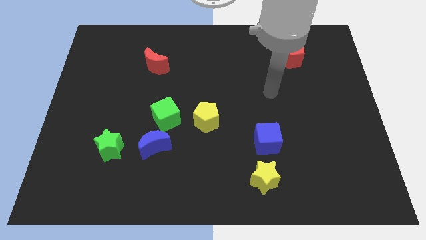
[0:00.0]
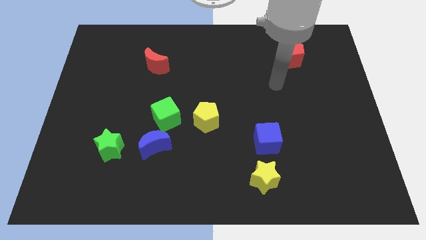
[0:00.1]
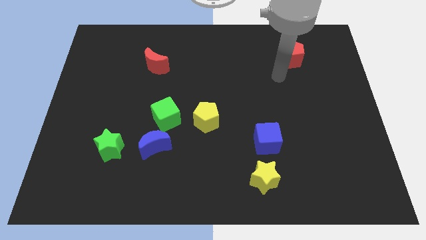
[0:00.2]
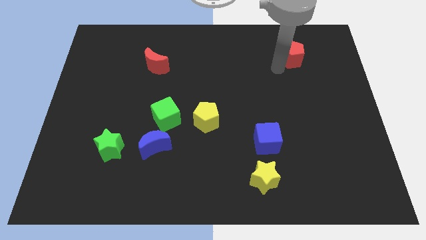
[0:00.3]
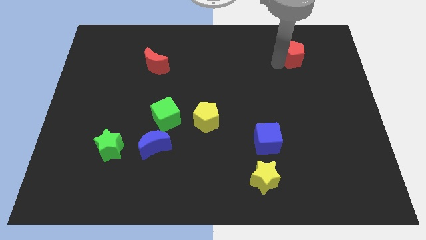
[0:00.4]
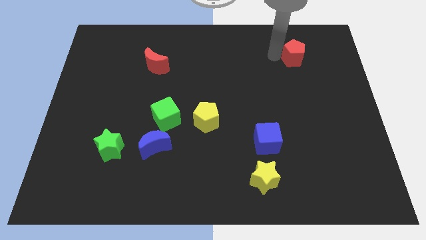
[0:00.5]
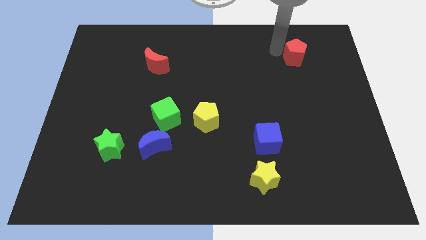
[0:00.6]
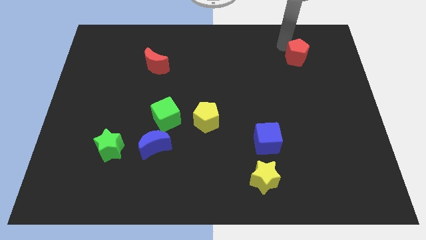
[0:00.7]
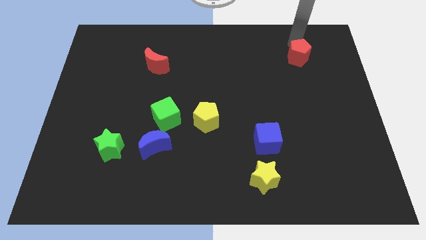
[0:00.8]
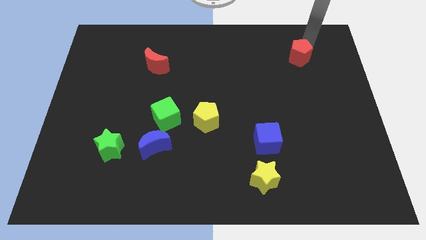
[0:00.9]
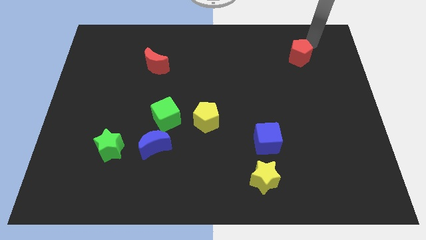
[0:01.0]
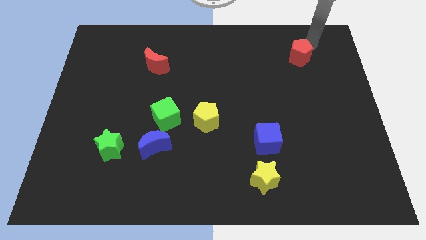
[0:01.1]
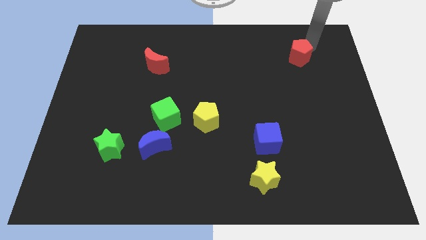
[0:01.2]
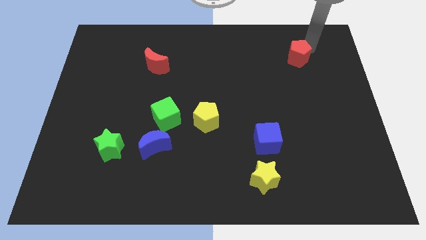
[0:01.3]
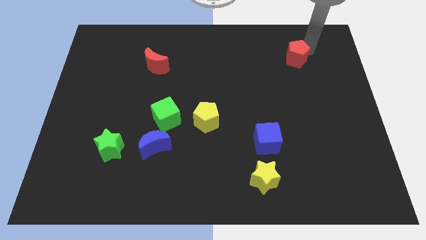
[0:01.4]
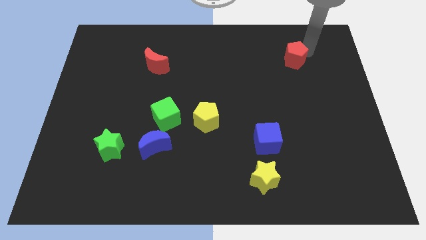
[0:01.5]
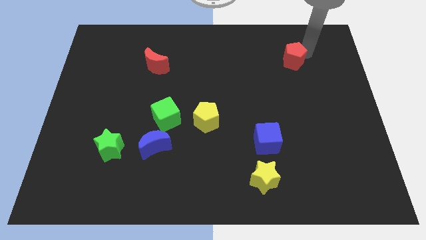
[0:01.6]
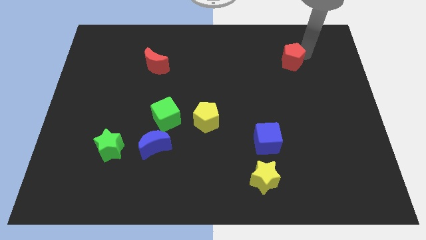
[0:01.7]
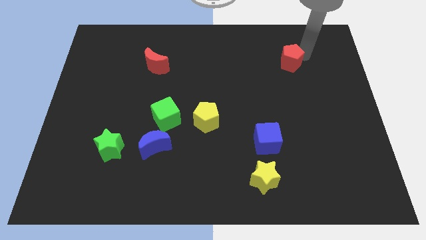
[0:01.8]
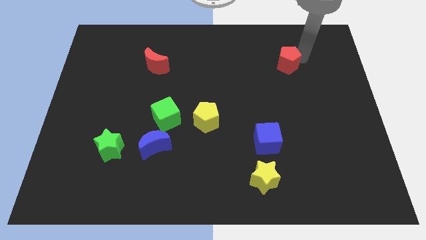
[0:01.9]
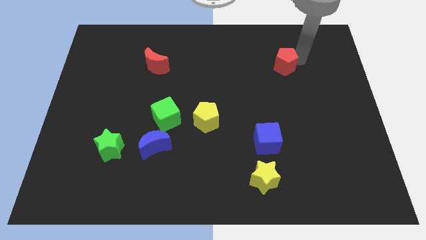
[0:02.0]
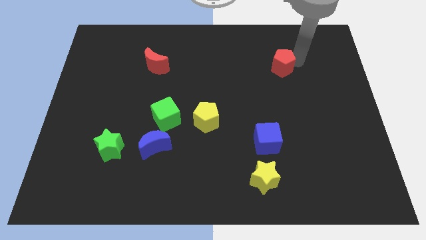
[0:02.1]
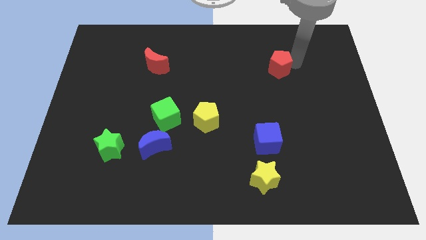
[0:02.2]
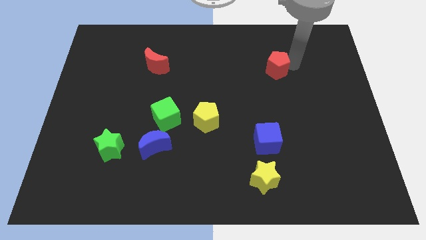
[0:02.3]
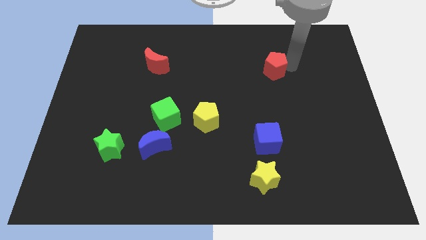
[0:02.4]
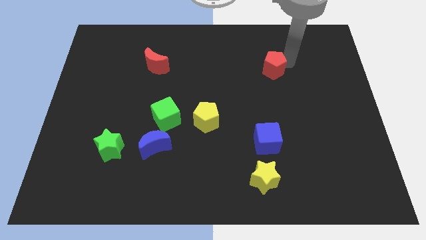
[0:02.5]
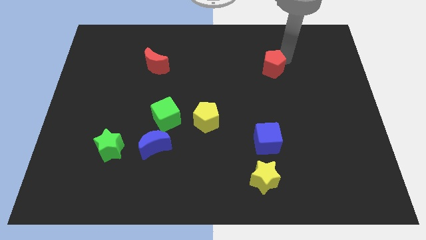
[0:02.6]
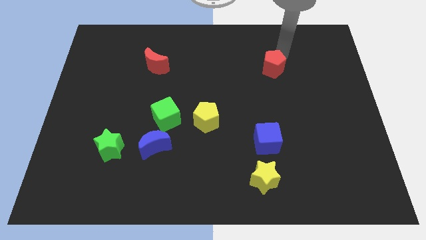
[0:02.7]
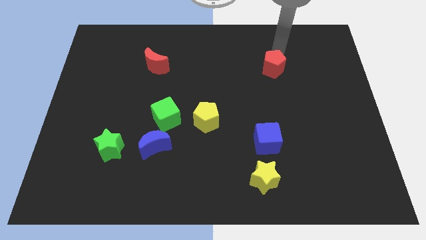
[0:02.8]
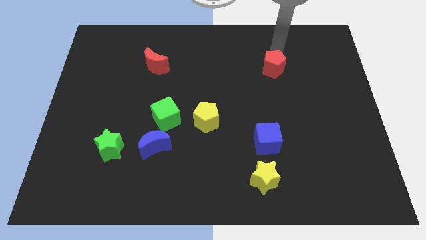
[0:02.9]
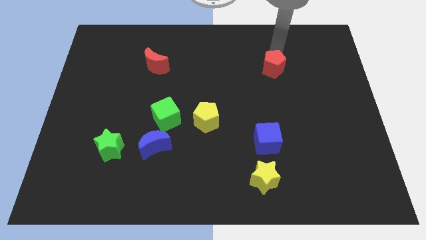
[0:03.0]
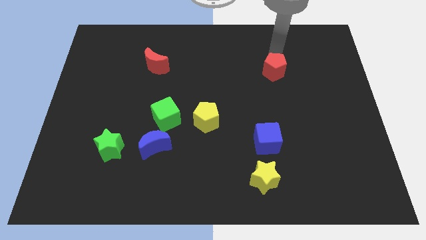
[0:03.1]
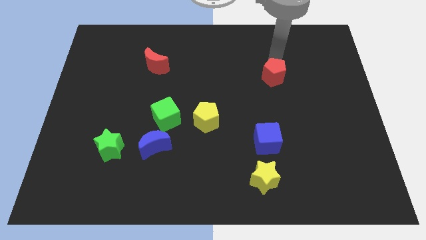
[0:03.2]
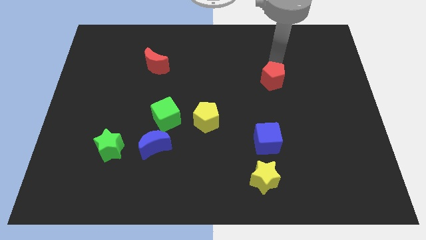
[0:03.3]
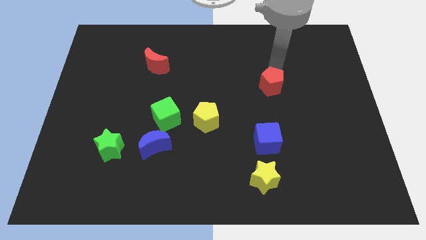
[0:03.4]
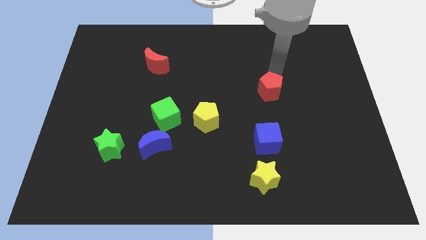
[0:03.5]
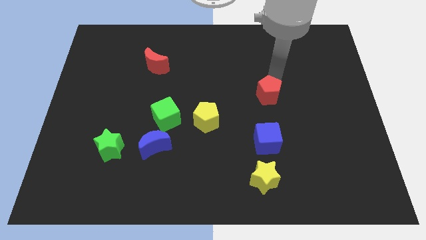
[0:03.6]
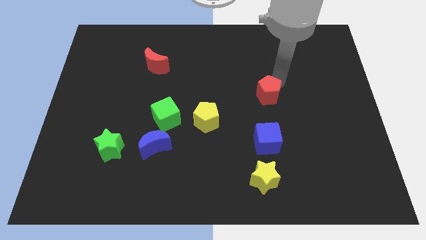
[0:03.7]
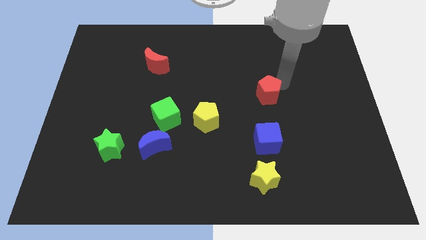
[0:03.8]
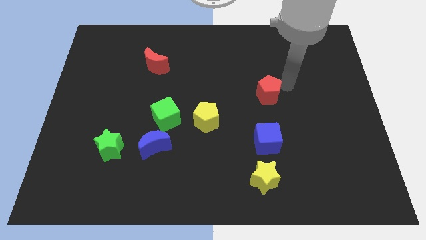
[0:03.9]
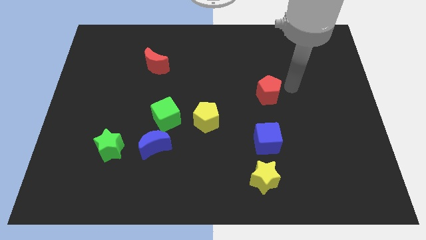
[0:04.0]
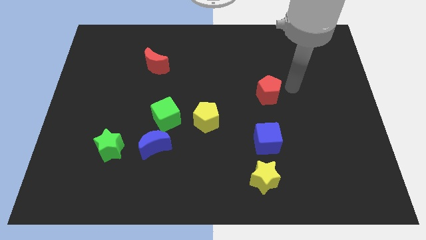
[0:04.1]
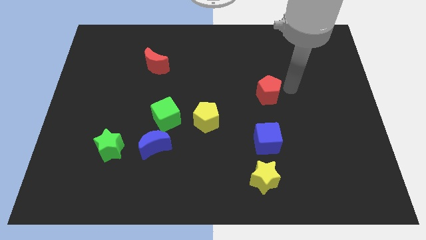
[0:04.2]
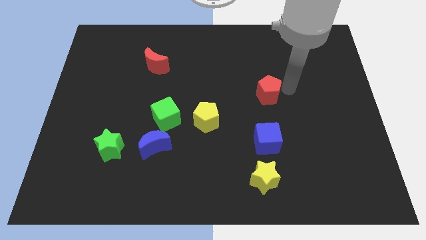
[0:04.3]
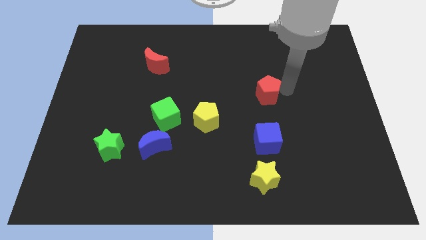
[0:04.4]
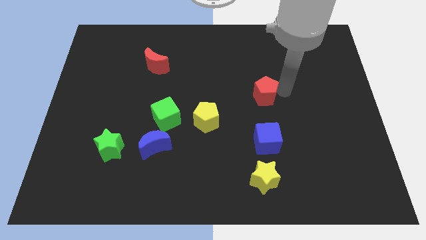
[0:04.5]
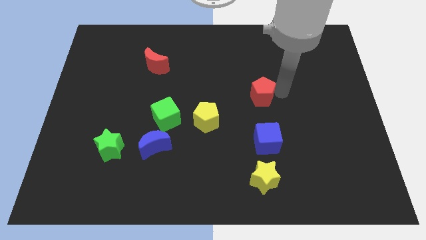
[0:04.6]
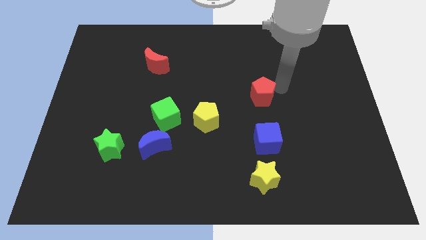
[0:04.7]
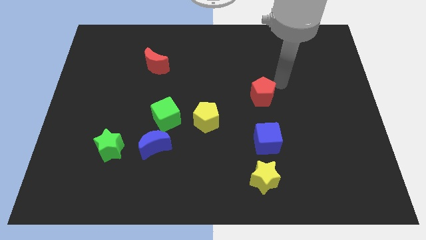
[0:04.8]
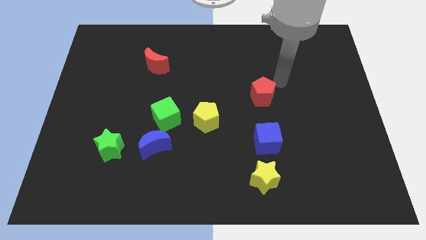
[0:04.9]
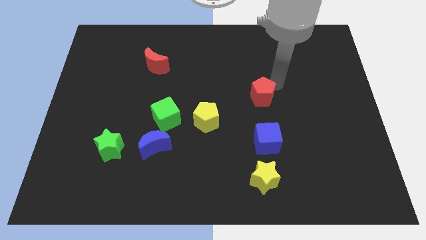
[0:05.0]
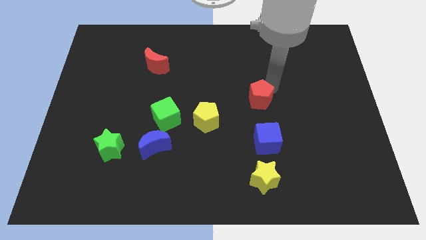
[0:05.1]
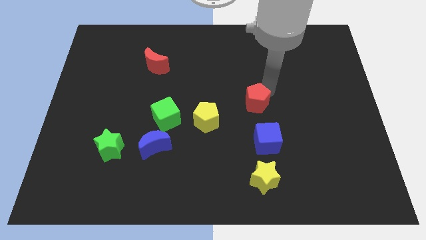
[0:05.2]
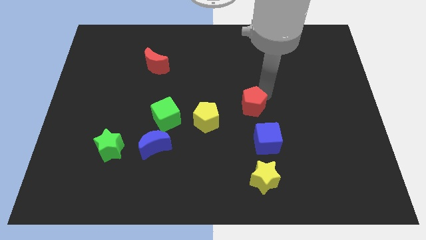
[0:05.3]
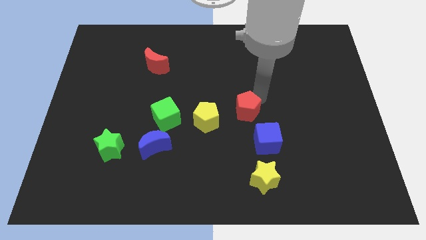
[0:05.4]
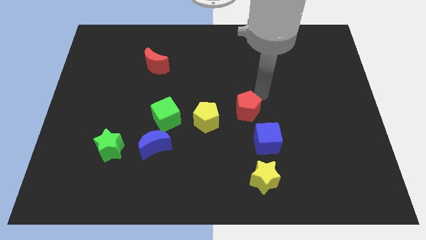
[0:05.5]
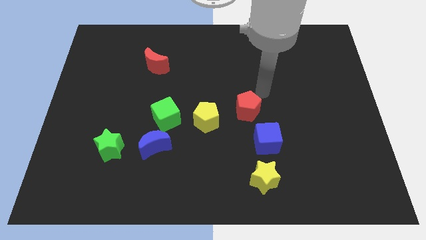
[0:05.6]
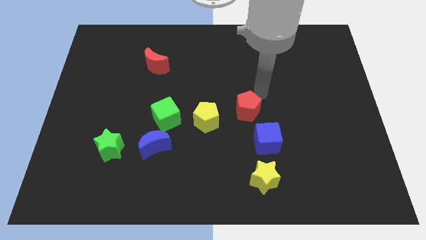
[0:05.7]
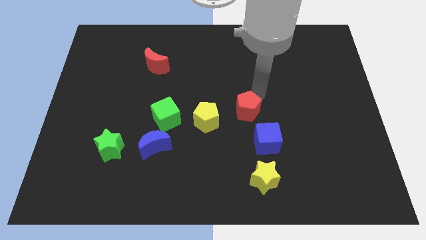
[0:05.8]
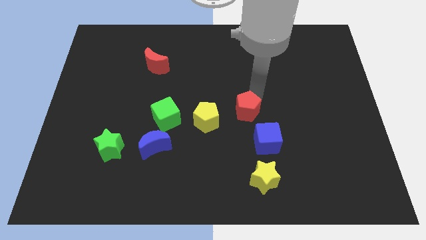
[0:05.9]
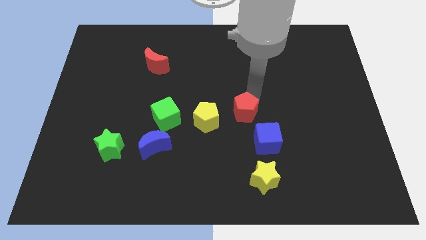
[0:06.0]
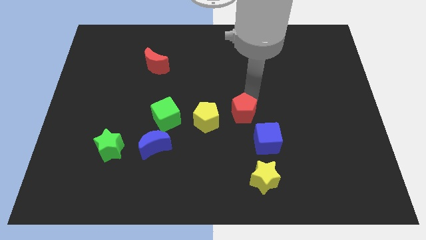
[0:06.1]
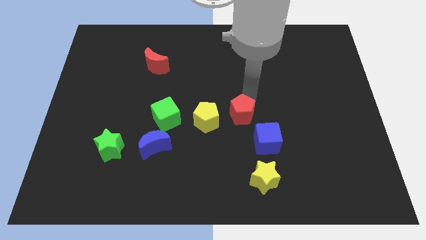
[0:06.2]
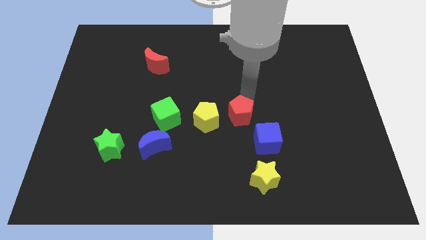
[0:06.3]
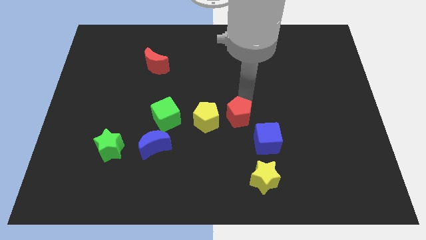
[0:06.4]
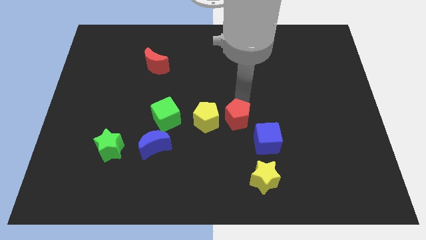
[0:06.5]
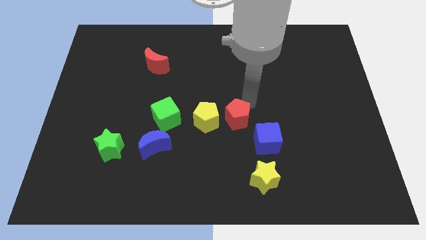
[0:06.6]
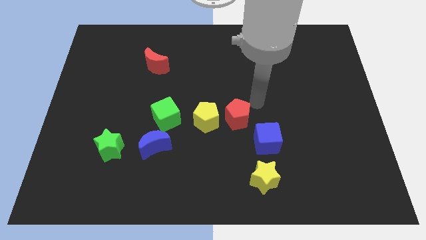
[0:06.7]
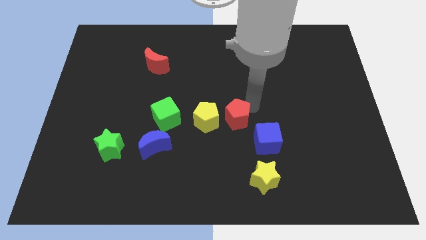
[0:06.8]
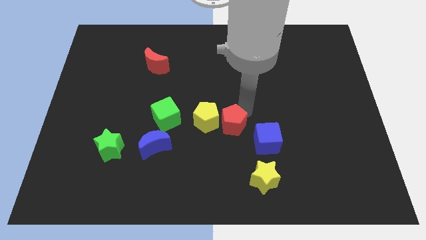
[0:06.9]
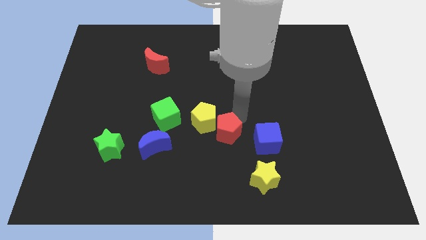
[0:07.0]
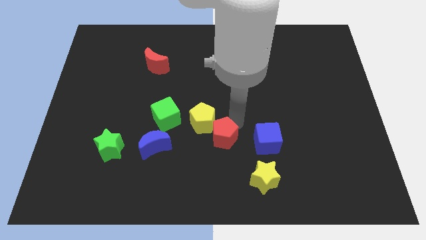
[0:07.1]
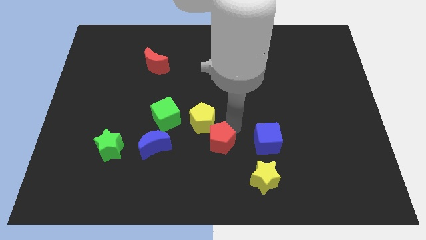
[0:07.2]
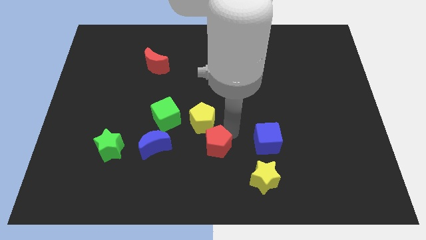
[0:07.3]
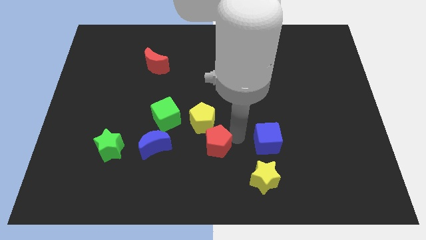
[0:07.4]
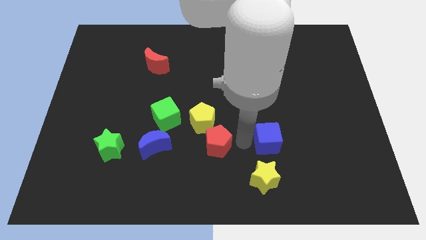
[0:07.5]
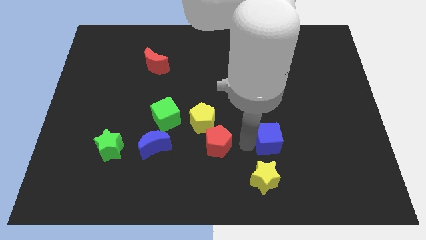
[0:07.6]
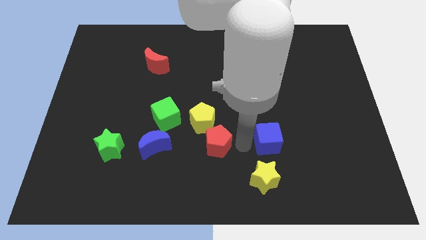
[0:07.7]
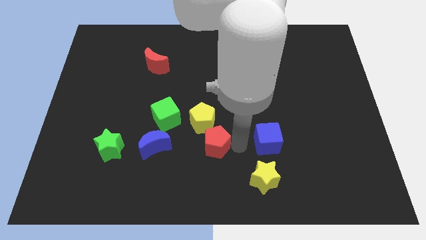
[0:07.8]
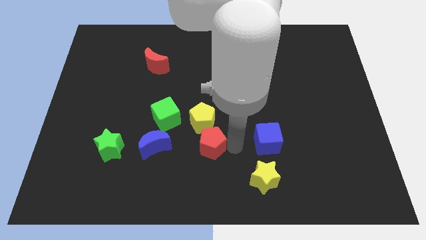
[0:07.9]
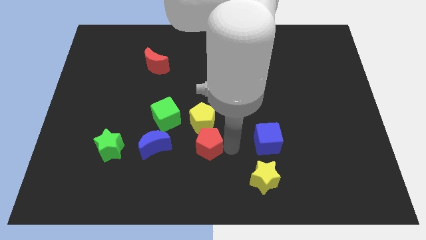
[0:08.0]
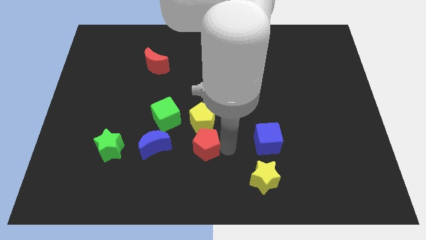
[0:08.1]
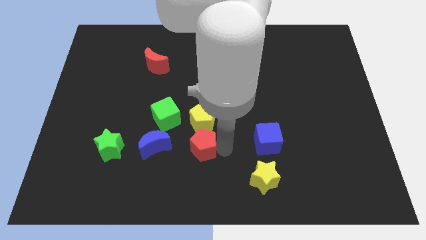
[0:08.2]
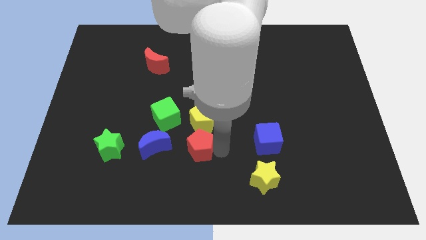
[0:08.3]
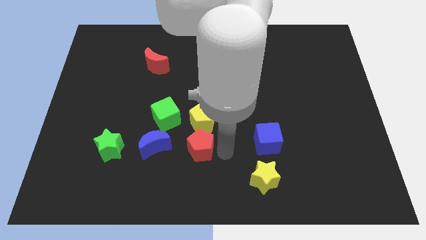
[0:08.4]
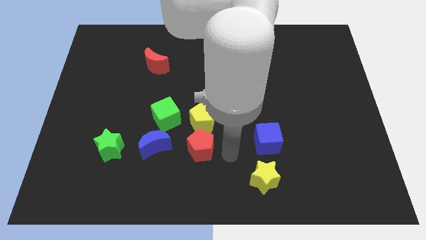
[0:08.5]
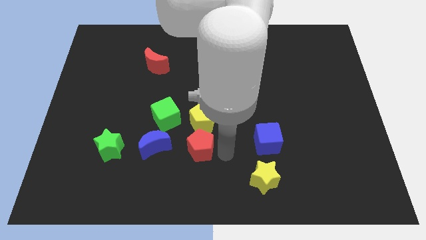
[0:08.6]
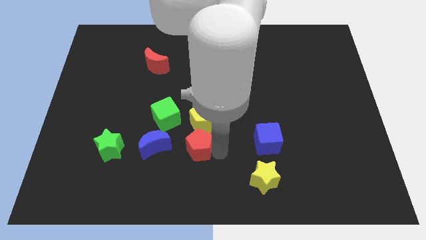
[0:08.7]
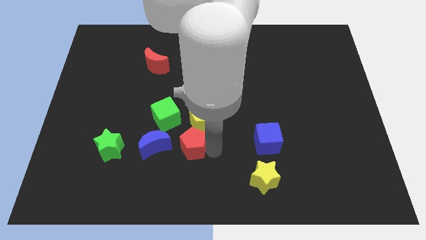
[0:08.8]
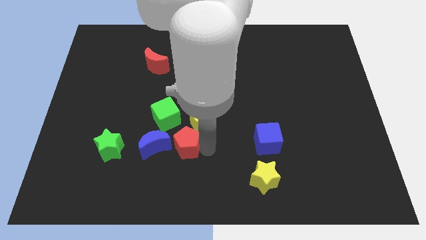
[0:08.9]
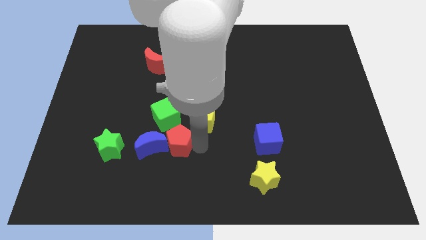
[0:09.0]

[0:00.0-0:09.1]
put the red pentagon to the blue moon
